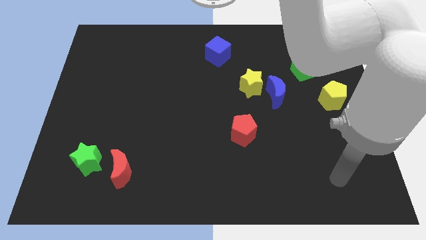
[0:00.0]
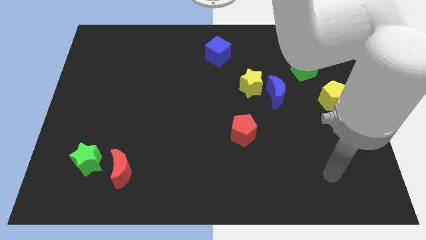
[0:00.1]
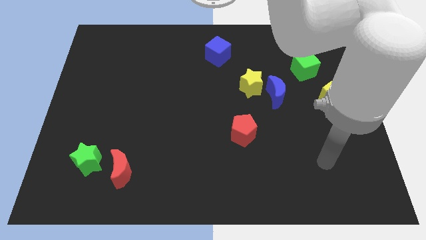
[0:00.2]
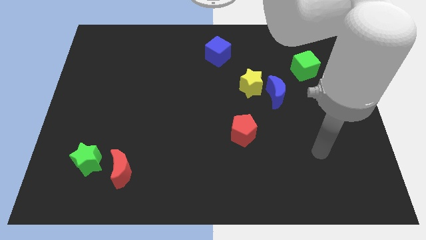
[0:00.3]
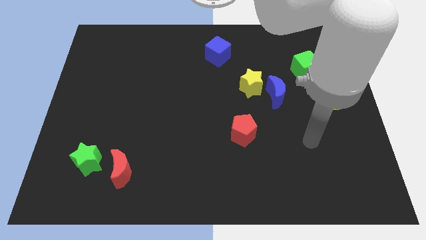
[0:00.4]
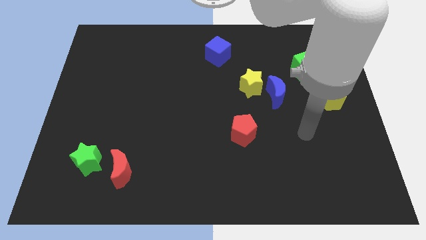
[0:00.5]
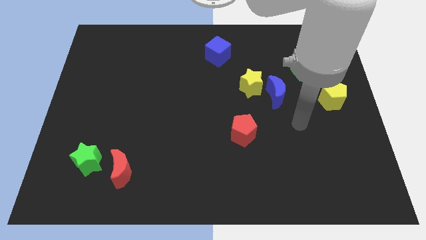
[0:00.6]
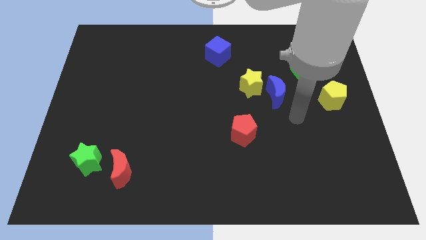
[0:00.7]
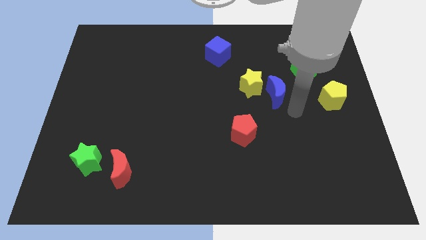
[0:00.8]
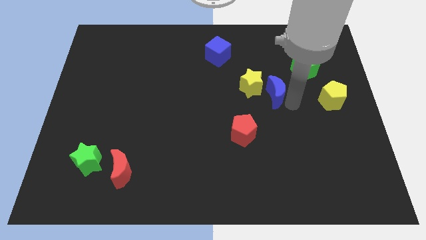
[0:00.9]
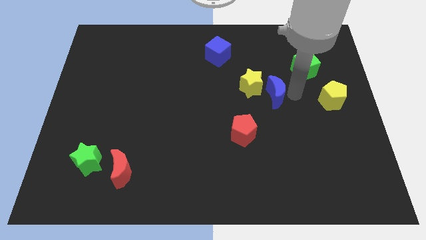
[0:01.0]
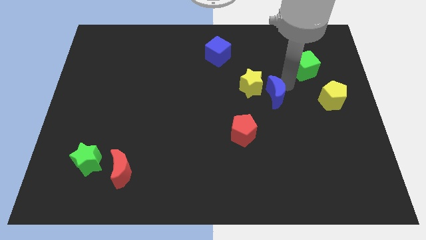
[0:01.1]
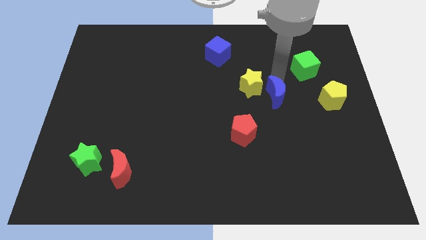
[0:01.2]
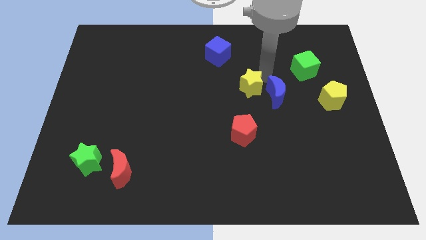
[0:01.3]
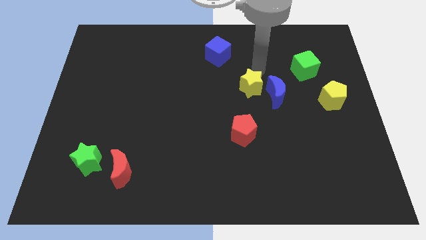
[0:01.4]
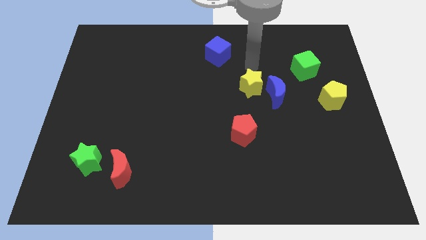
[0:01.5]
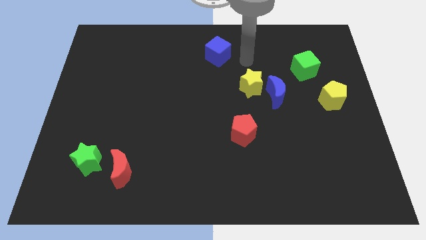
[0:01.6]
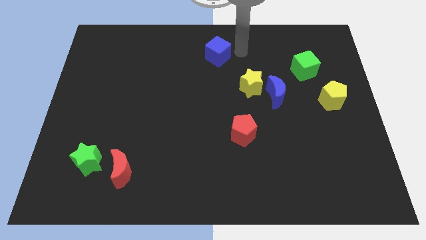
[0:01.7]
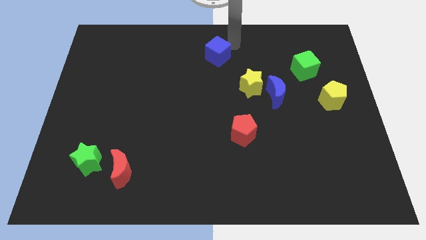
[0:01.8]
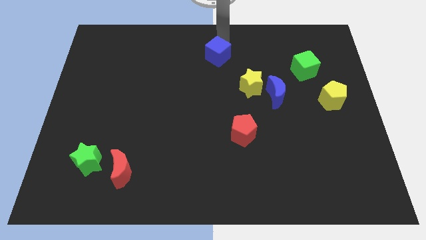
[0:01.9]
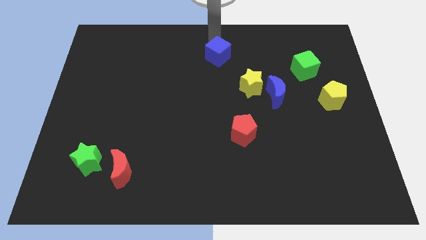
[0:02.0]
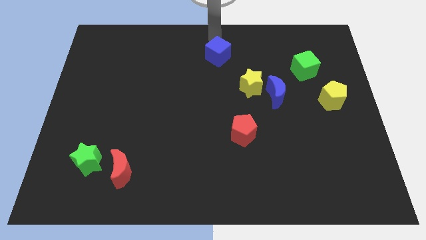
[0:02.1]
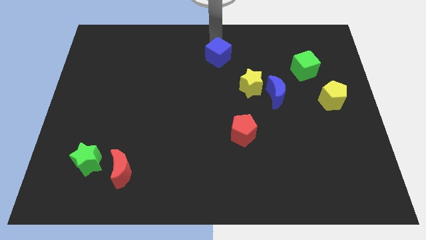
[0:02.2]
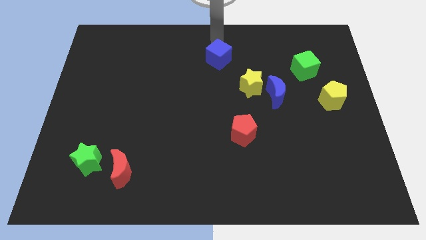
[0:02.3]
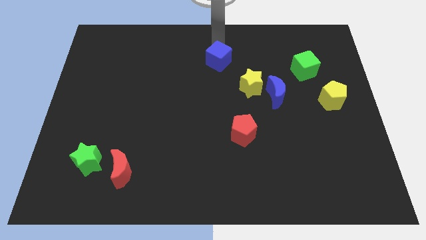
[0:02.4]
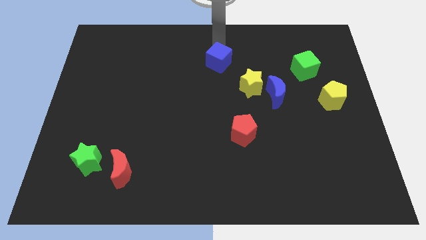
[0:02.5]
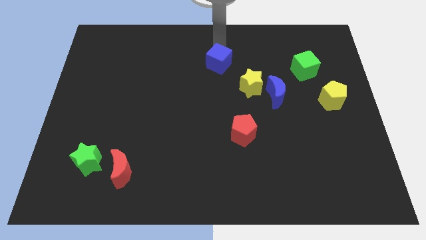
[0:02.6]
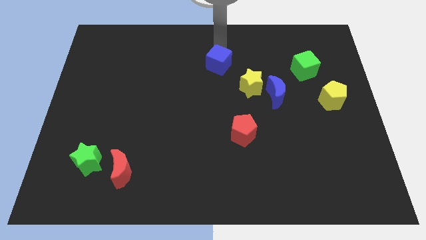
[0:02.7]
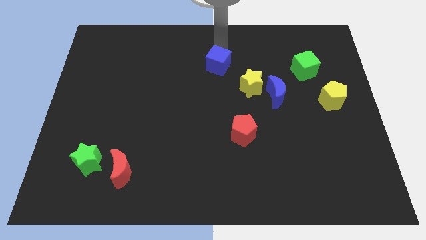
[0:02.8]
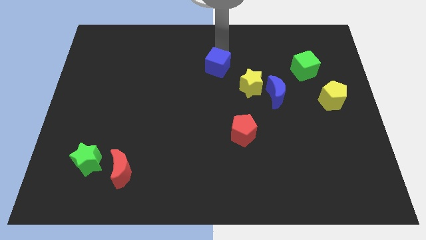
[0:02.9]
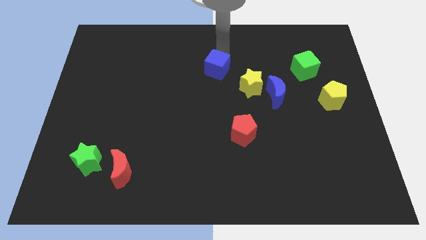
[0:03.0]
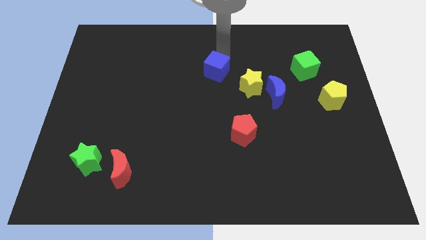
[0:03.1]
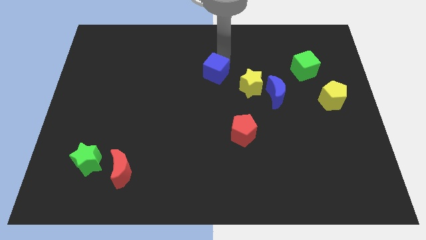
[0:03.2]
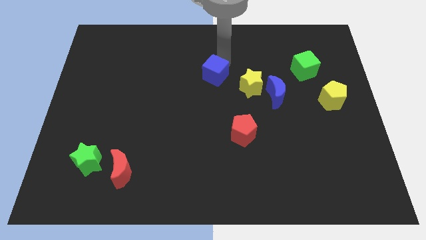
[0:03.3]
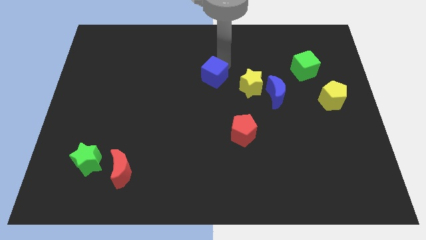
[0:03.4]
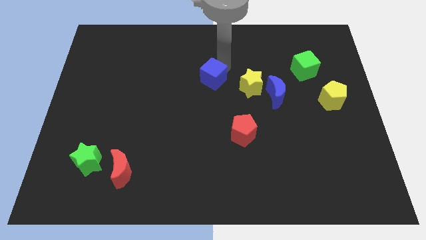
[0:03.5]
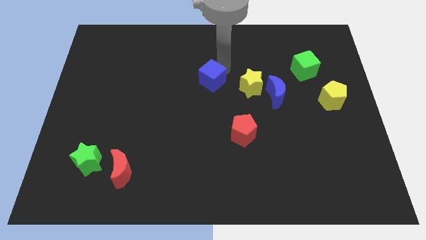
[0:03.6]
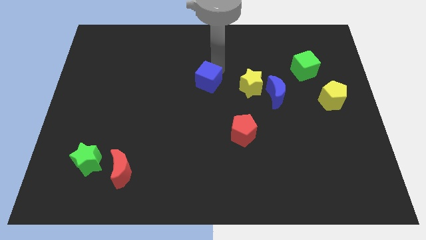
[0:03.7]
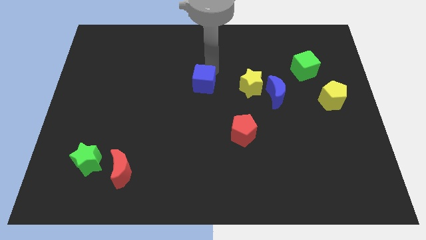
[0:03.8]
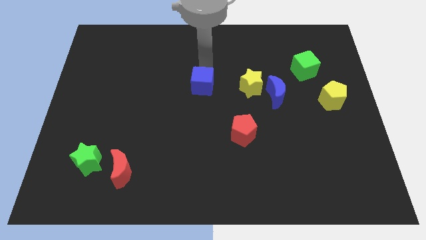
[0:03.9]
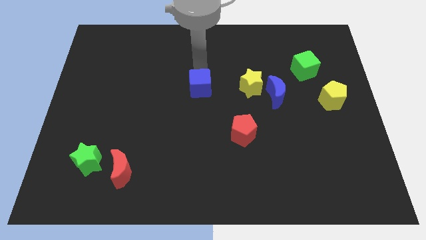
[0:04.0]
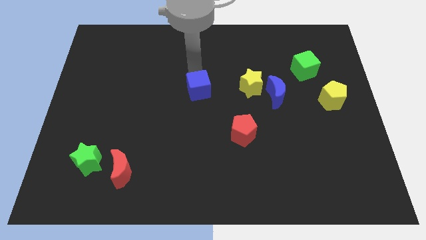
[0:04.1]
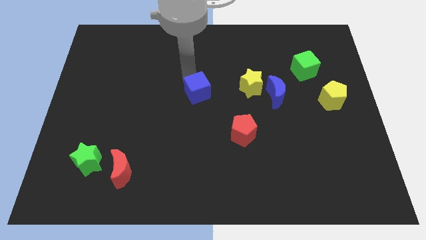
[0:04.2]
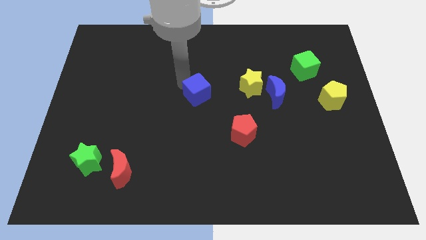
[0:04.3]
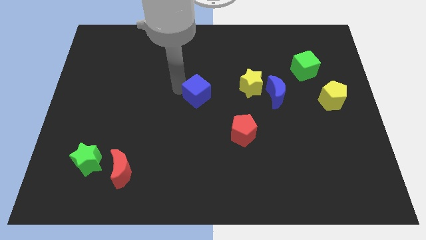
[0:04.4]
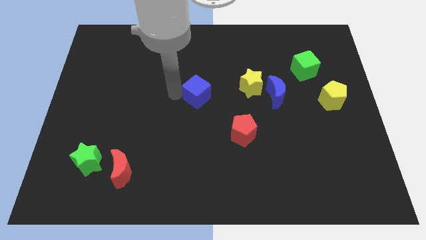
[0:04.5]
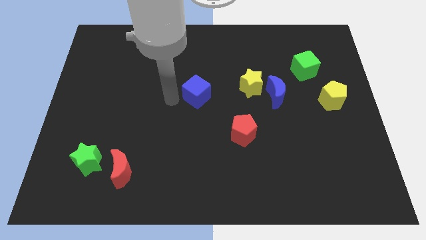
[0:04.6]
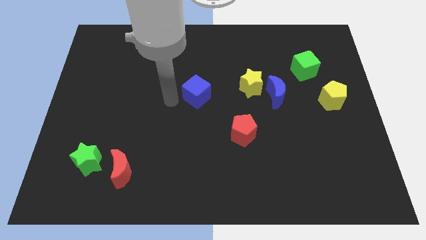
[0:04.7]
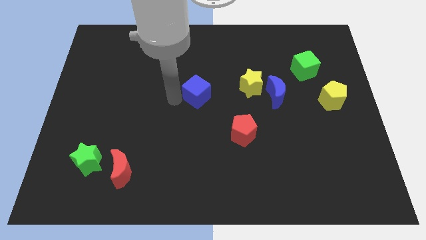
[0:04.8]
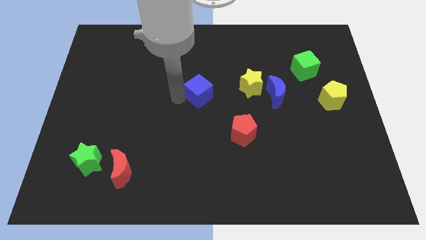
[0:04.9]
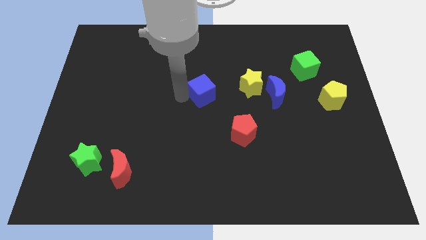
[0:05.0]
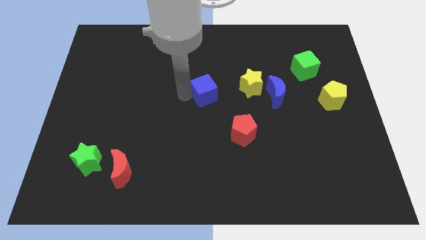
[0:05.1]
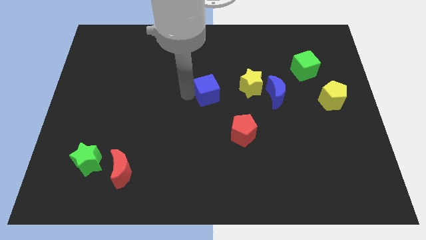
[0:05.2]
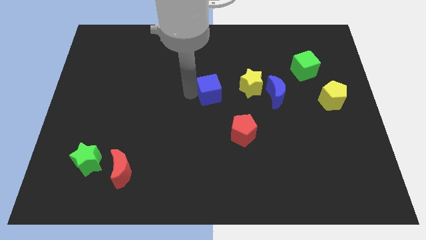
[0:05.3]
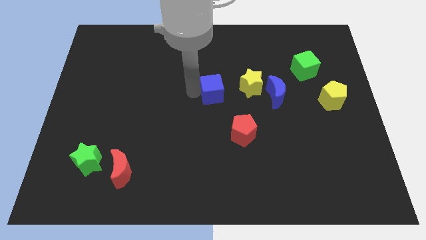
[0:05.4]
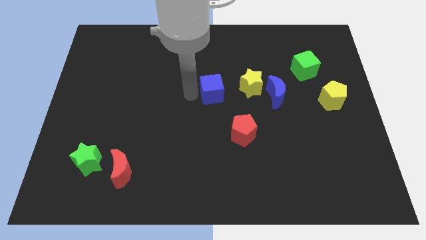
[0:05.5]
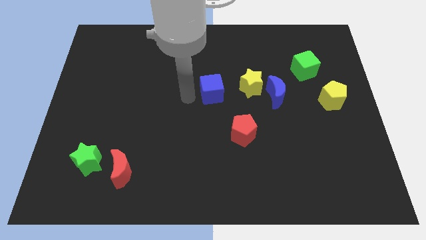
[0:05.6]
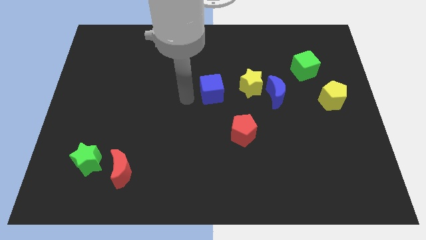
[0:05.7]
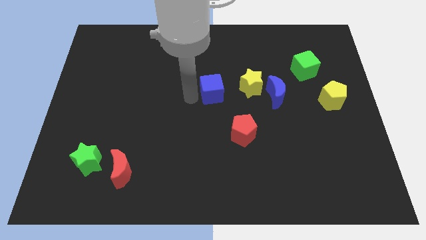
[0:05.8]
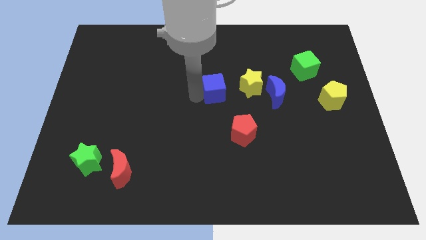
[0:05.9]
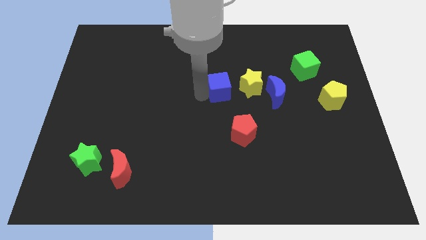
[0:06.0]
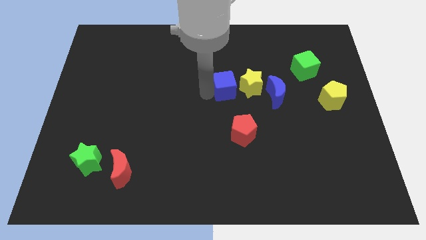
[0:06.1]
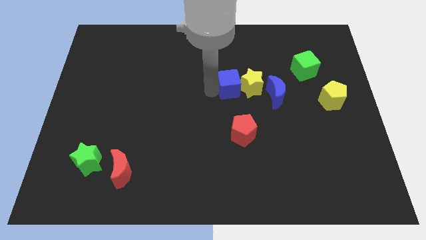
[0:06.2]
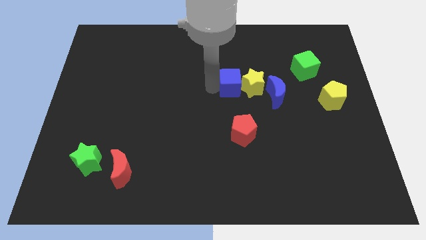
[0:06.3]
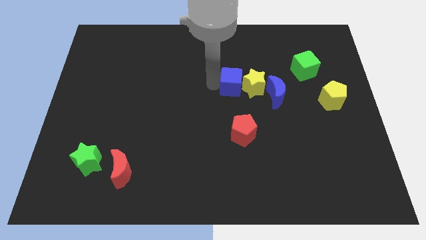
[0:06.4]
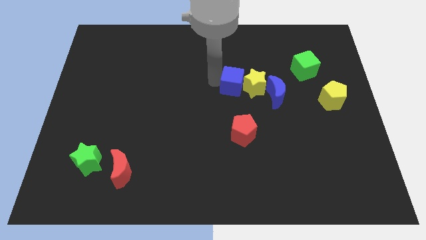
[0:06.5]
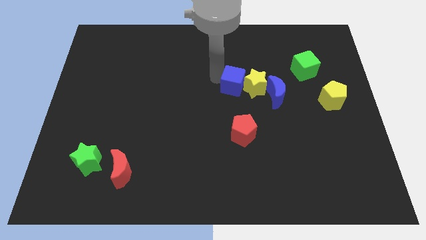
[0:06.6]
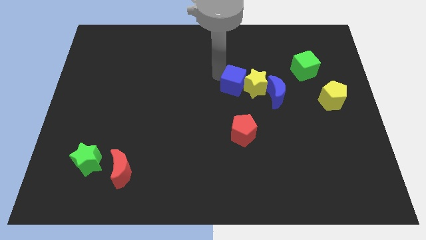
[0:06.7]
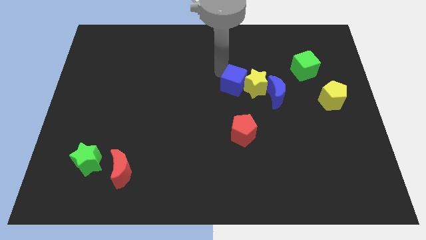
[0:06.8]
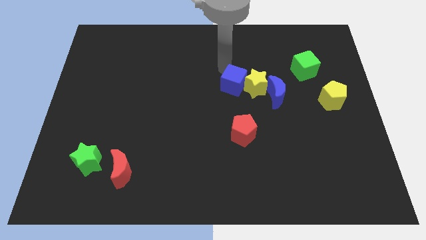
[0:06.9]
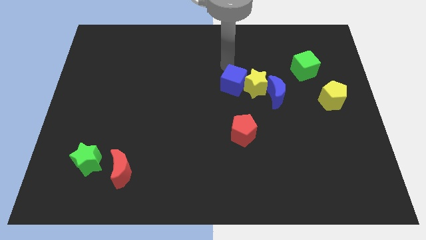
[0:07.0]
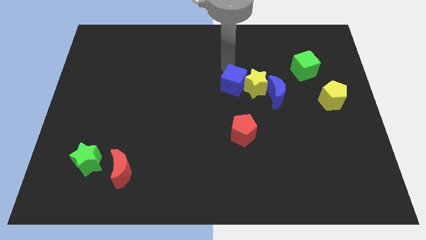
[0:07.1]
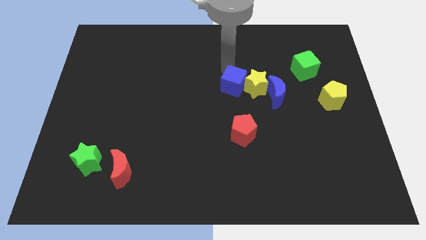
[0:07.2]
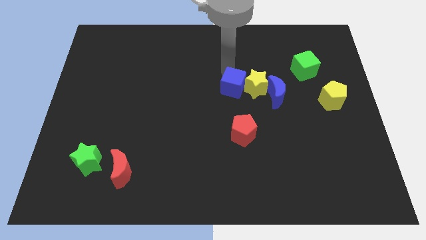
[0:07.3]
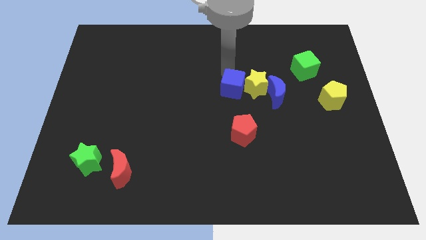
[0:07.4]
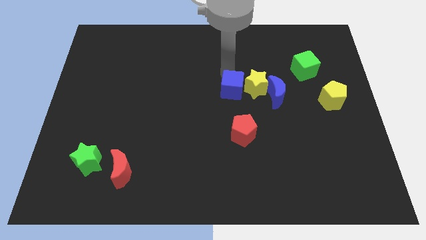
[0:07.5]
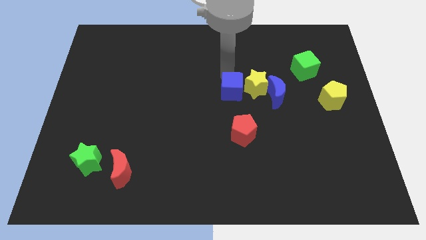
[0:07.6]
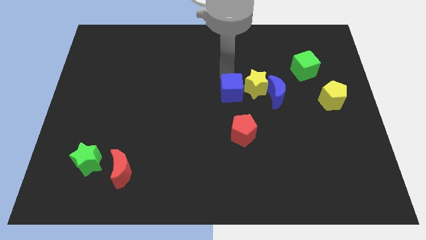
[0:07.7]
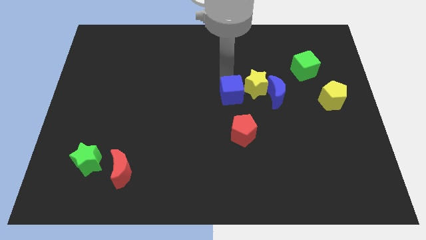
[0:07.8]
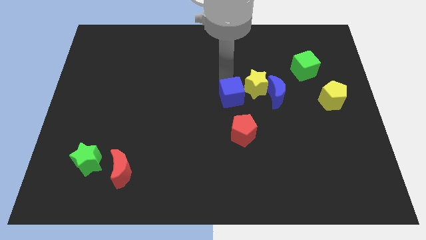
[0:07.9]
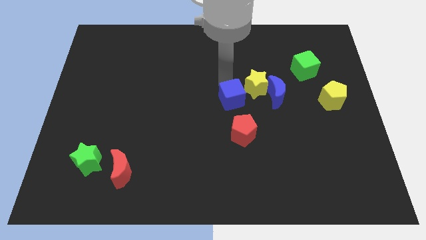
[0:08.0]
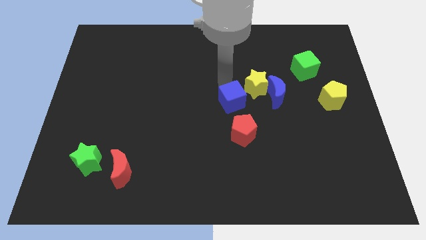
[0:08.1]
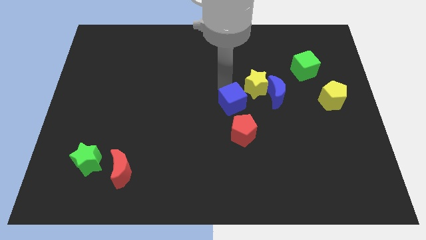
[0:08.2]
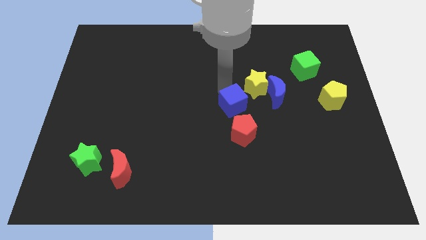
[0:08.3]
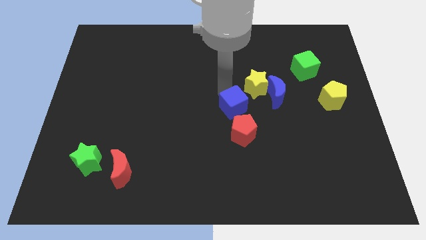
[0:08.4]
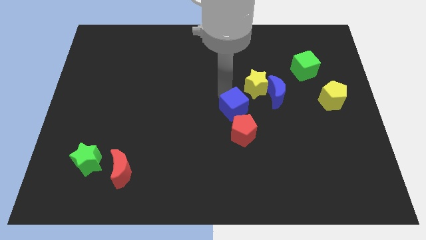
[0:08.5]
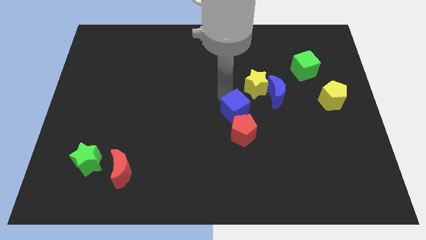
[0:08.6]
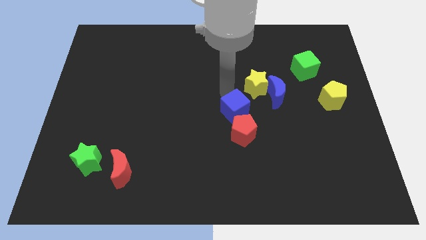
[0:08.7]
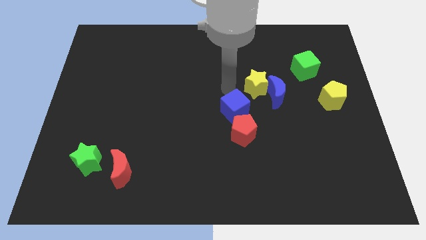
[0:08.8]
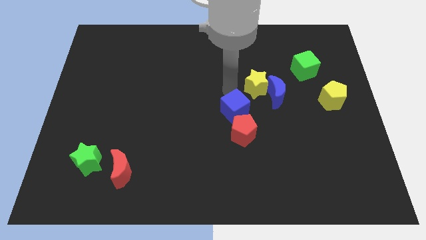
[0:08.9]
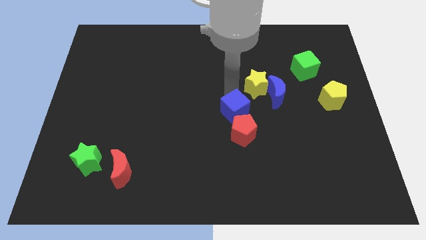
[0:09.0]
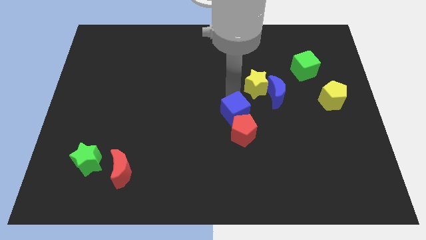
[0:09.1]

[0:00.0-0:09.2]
move the blue cube next to the red pentagon
